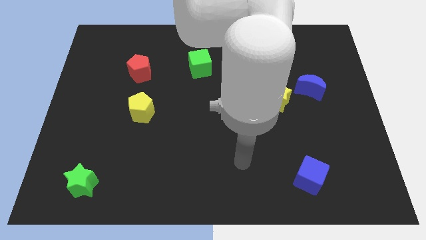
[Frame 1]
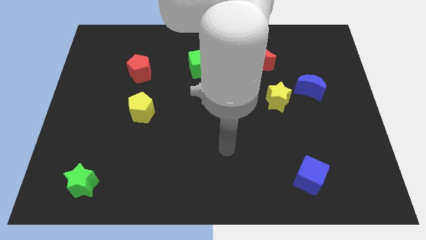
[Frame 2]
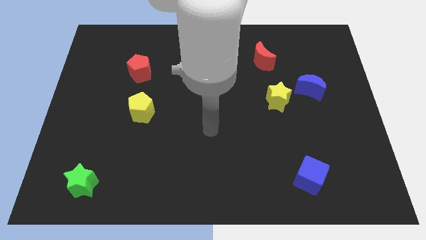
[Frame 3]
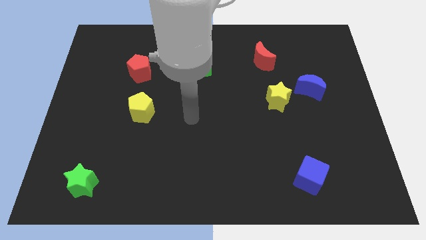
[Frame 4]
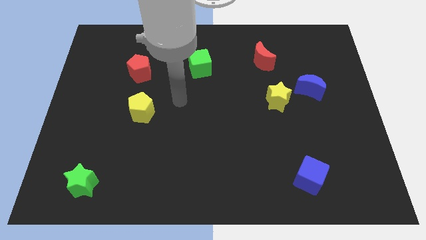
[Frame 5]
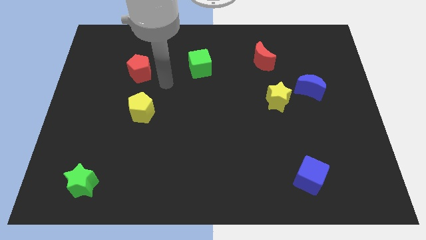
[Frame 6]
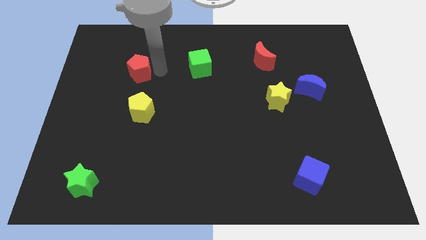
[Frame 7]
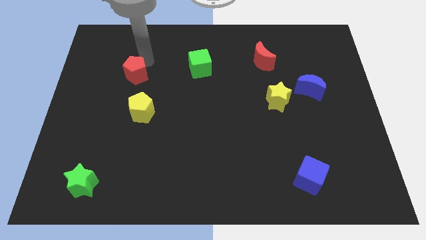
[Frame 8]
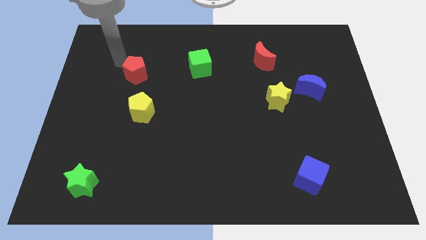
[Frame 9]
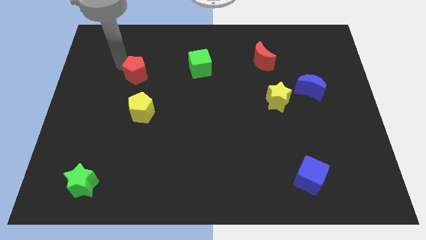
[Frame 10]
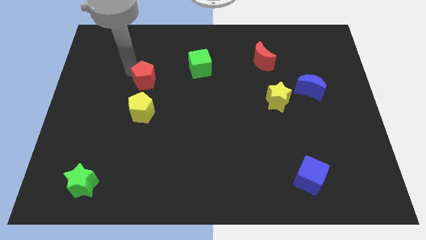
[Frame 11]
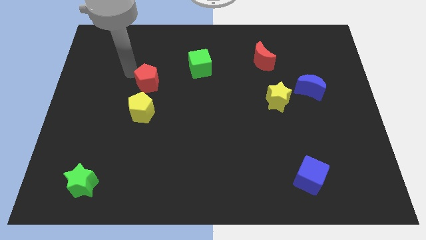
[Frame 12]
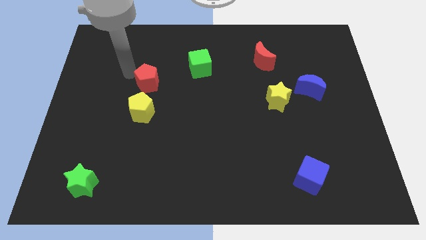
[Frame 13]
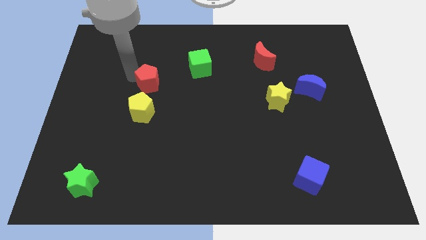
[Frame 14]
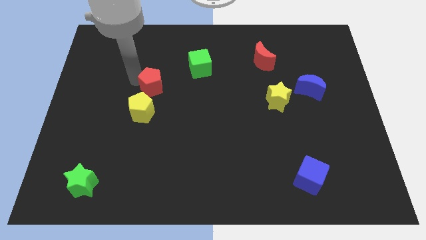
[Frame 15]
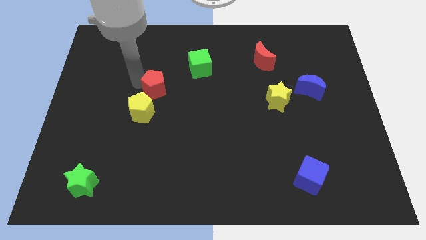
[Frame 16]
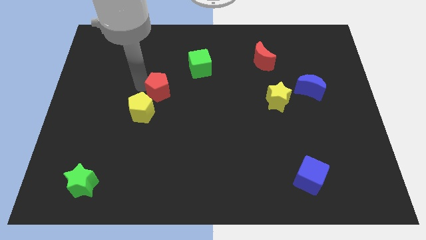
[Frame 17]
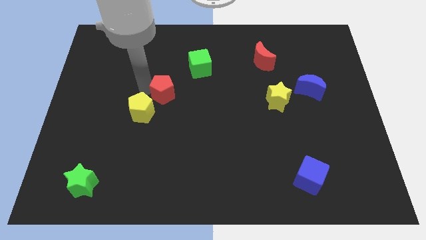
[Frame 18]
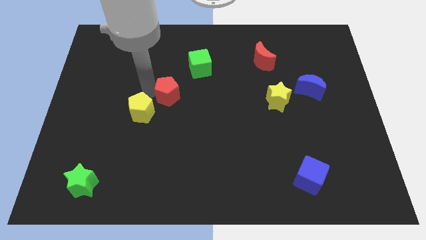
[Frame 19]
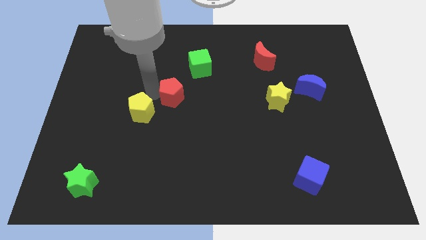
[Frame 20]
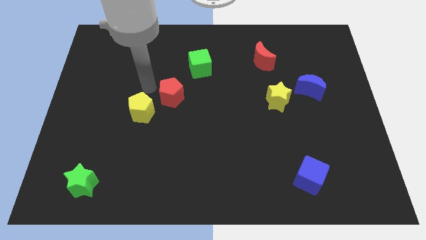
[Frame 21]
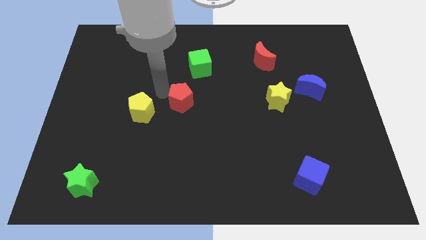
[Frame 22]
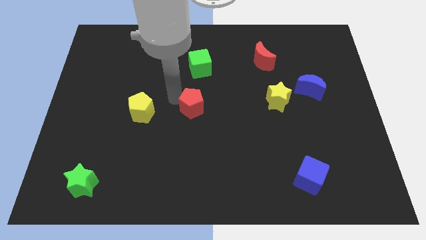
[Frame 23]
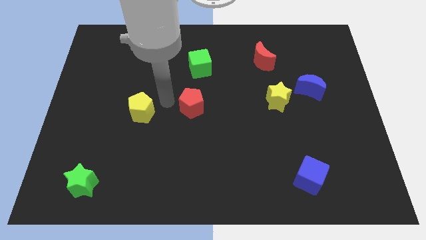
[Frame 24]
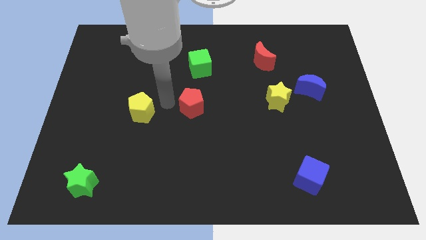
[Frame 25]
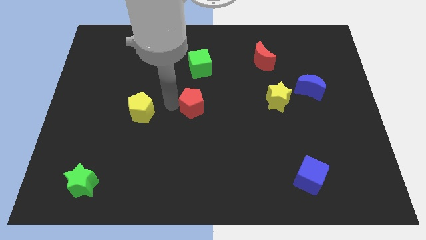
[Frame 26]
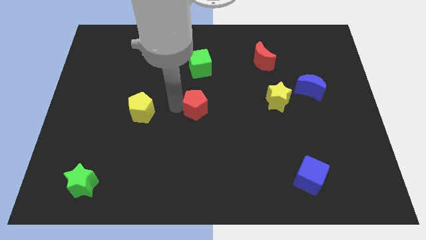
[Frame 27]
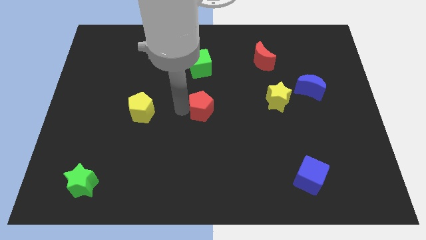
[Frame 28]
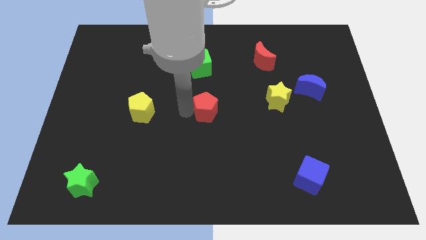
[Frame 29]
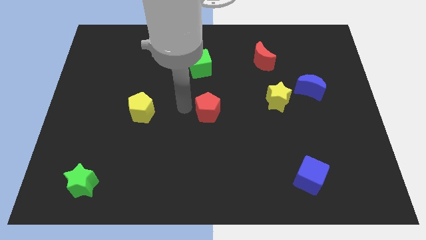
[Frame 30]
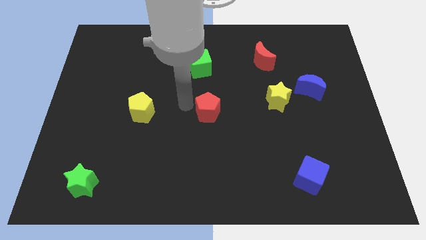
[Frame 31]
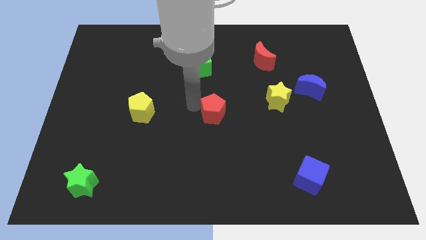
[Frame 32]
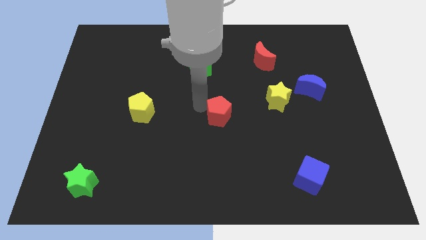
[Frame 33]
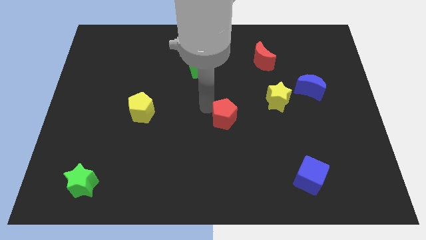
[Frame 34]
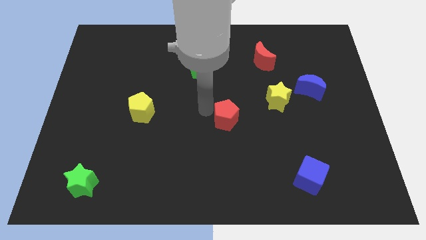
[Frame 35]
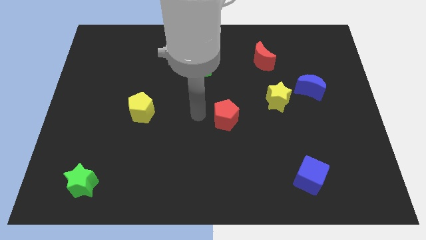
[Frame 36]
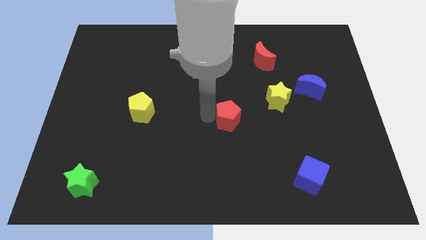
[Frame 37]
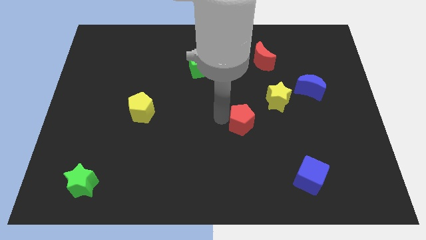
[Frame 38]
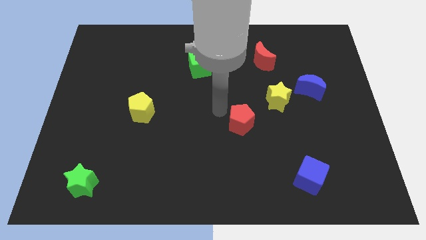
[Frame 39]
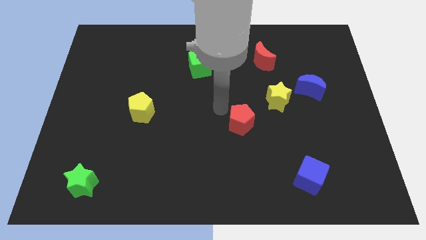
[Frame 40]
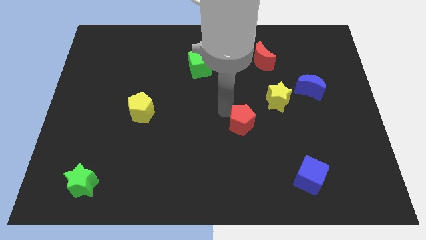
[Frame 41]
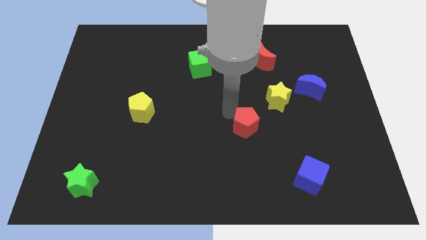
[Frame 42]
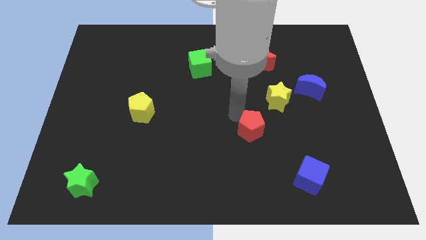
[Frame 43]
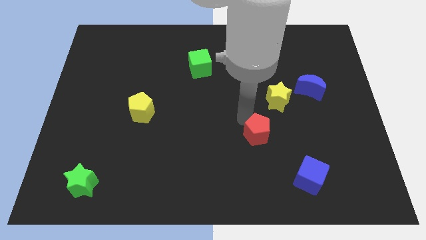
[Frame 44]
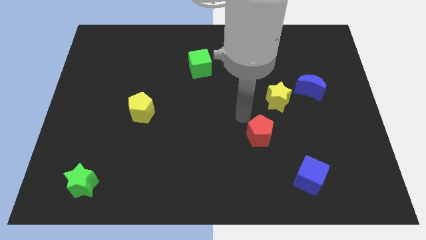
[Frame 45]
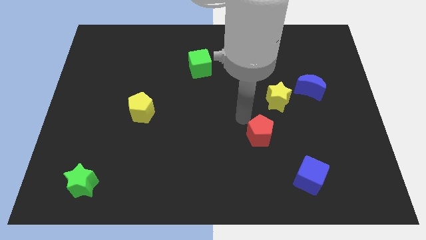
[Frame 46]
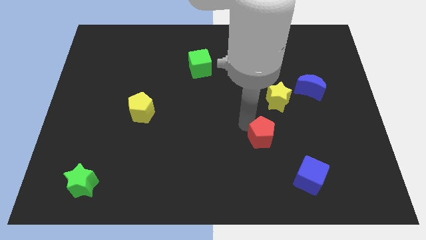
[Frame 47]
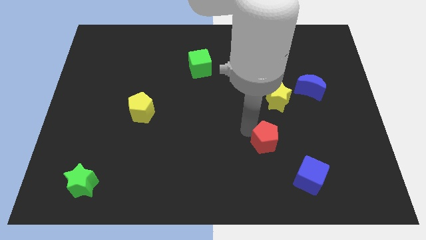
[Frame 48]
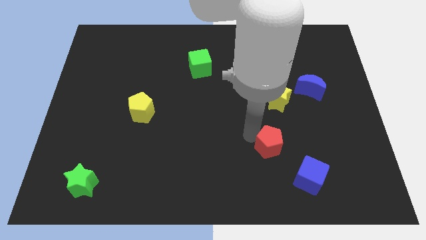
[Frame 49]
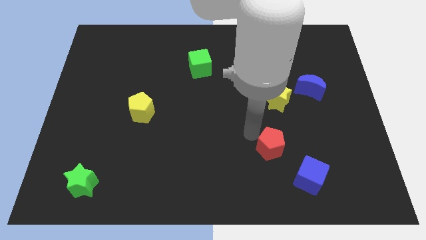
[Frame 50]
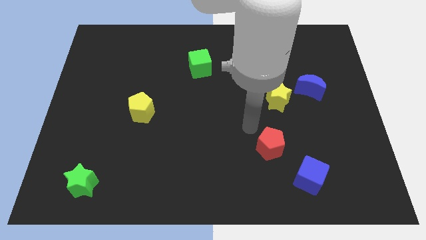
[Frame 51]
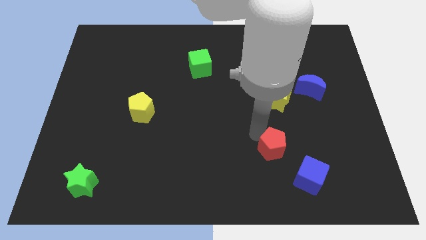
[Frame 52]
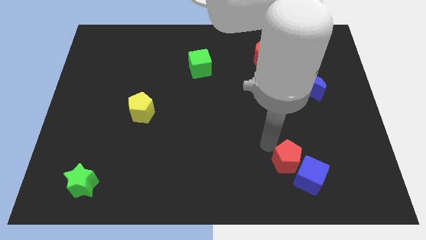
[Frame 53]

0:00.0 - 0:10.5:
slide the red pentagon to the blue cube

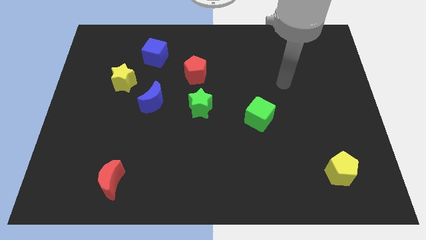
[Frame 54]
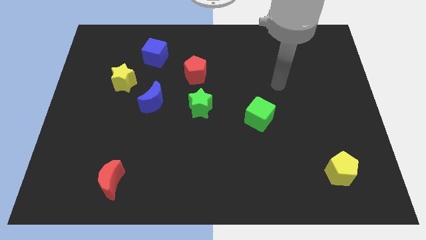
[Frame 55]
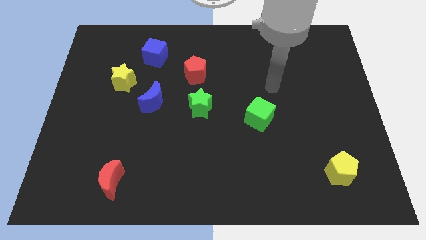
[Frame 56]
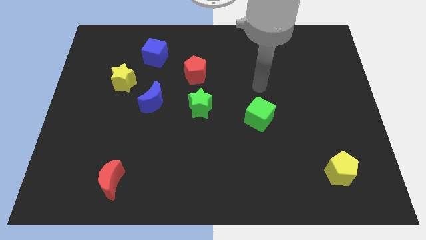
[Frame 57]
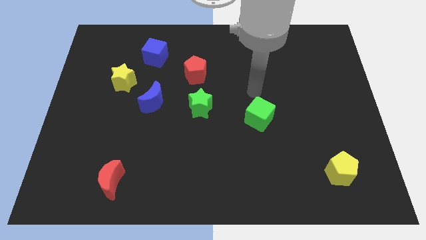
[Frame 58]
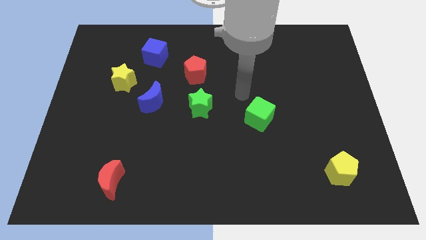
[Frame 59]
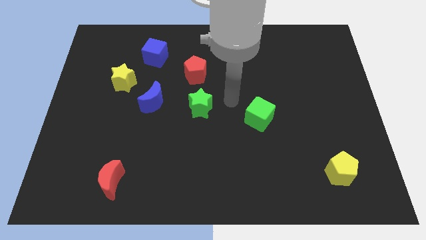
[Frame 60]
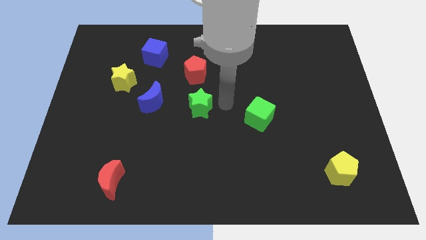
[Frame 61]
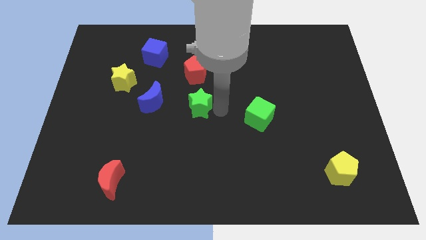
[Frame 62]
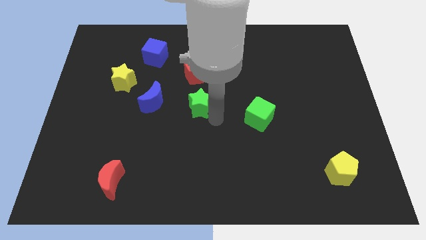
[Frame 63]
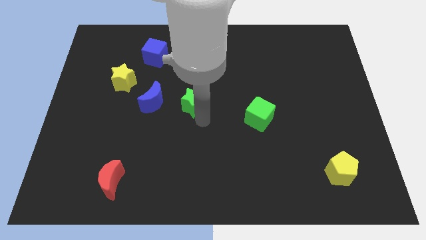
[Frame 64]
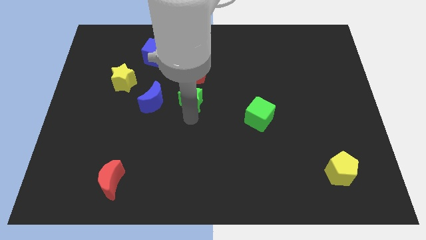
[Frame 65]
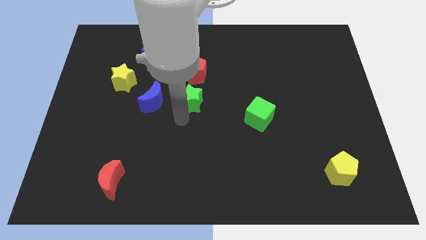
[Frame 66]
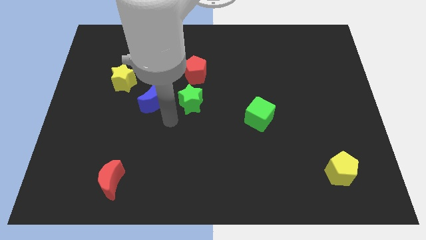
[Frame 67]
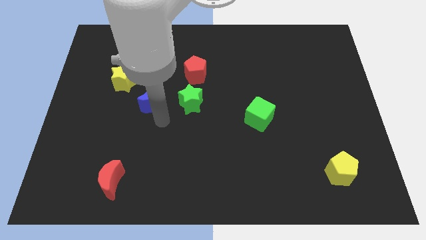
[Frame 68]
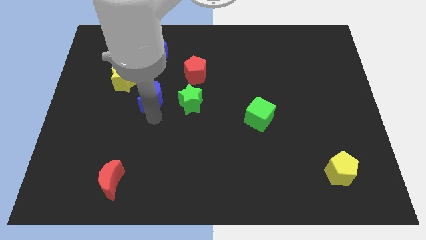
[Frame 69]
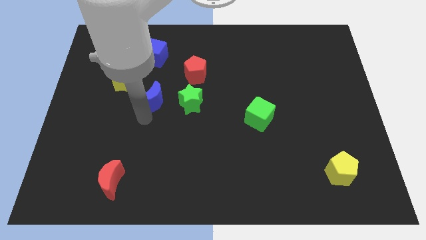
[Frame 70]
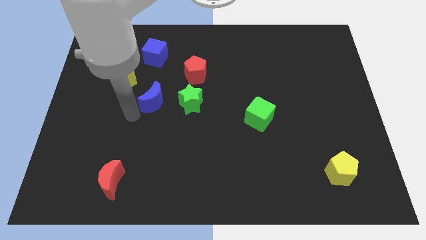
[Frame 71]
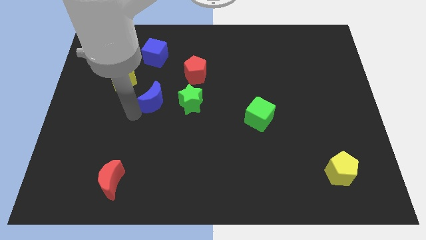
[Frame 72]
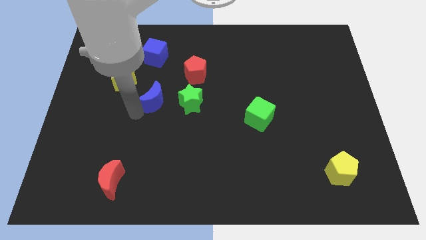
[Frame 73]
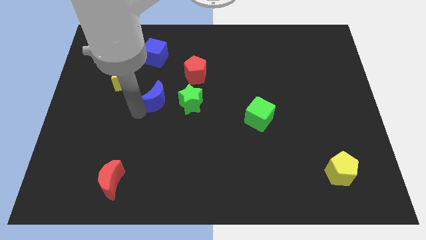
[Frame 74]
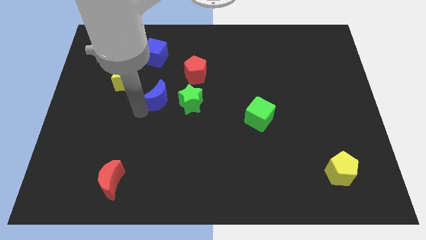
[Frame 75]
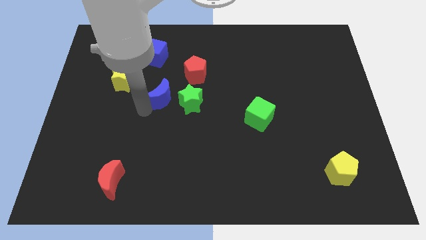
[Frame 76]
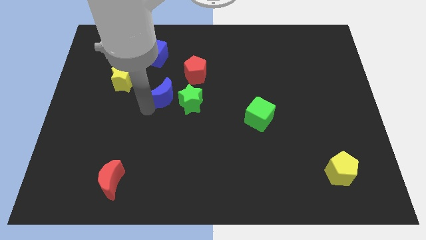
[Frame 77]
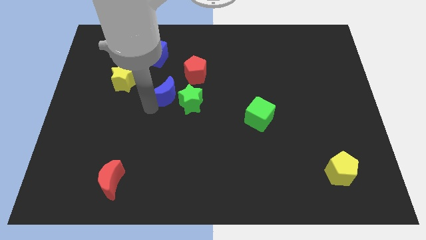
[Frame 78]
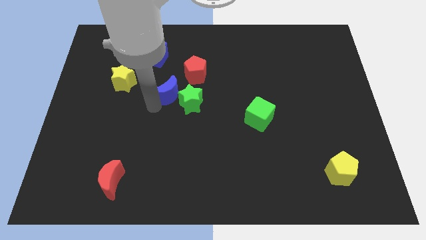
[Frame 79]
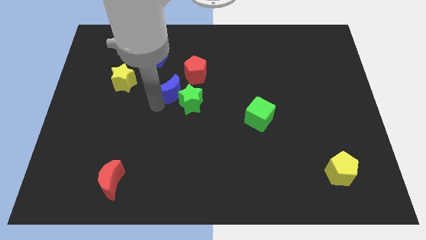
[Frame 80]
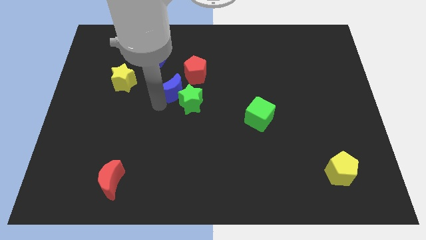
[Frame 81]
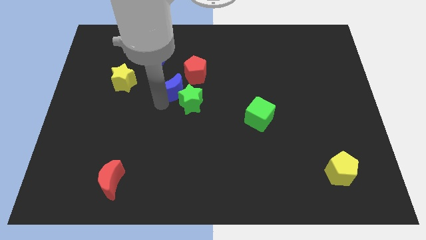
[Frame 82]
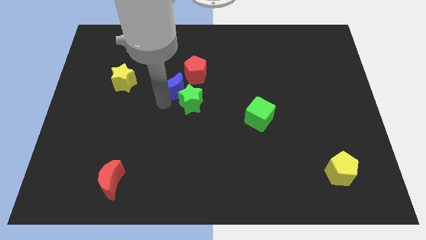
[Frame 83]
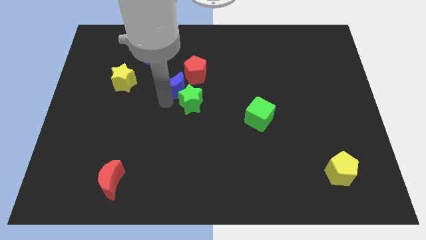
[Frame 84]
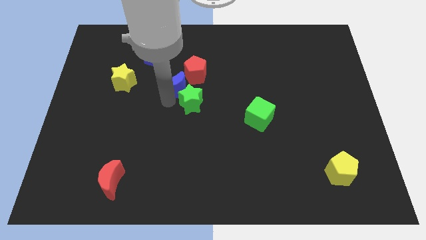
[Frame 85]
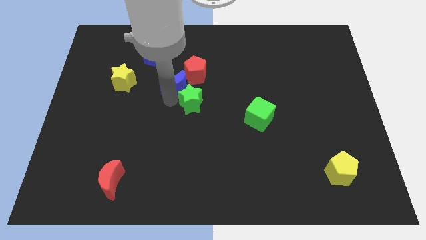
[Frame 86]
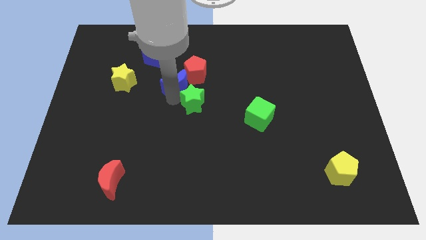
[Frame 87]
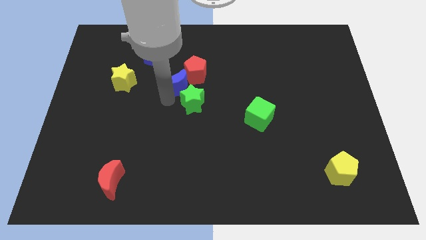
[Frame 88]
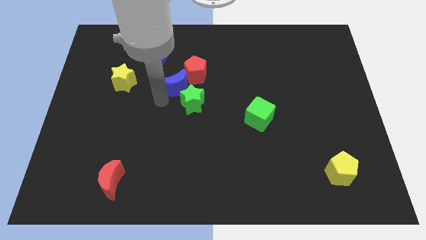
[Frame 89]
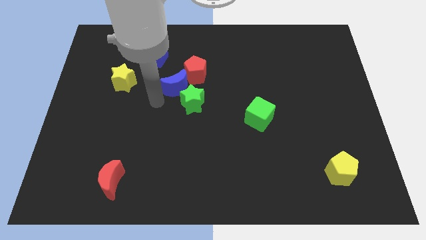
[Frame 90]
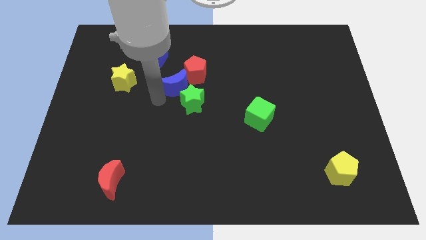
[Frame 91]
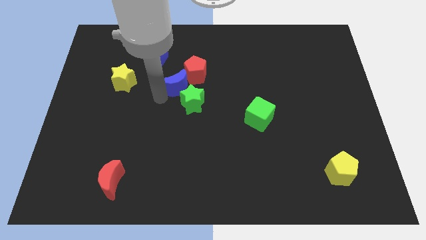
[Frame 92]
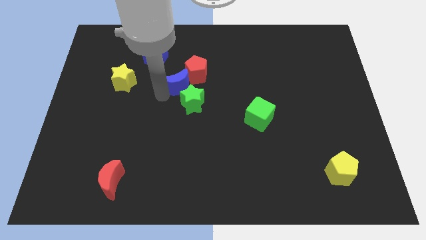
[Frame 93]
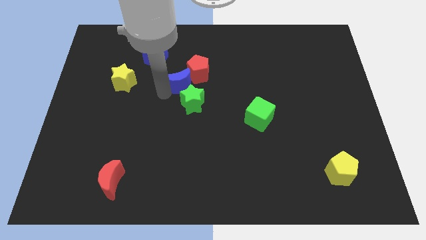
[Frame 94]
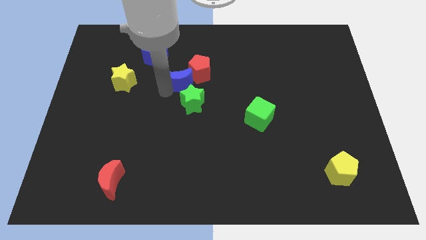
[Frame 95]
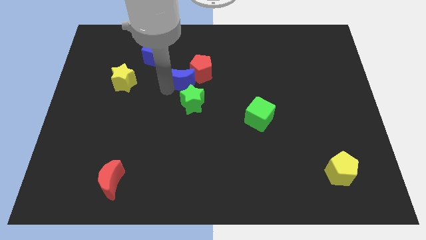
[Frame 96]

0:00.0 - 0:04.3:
slide the blue moon next to the red pentagon
